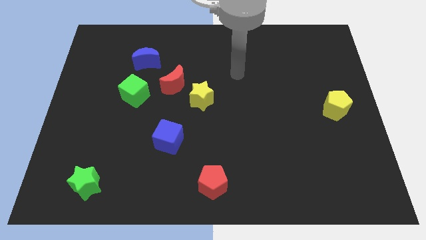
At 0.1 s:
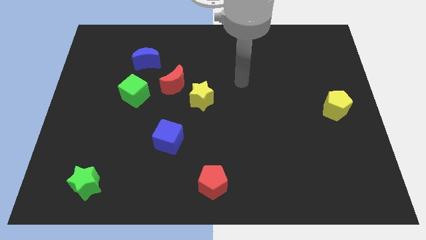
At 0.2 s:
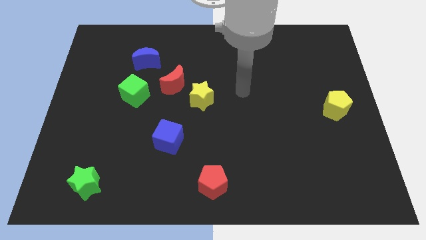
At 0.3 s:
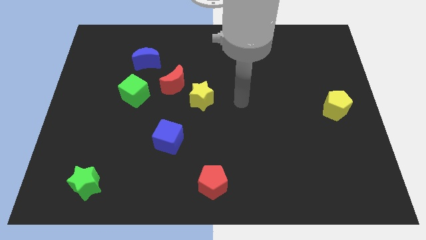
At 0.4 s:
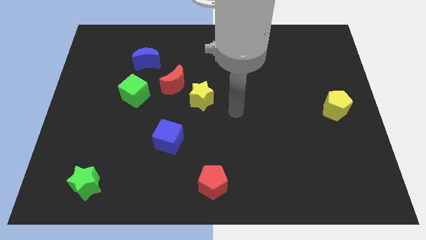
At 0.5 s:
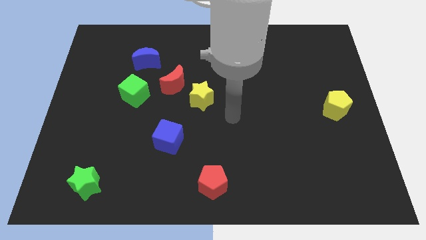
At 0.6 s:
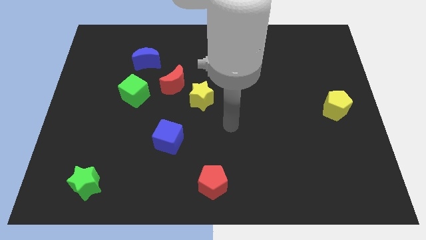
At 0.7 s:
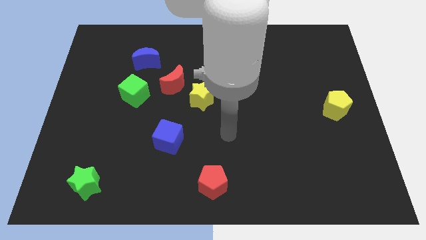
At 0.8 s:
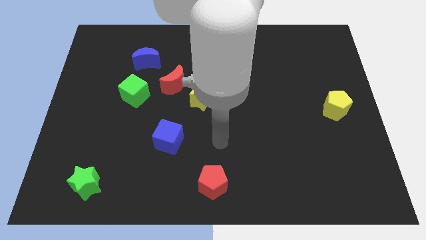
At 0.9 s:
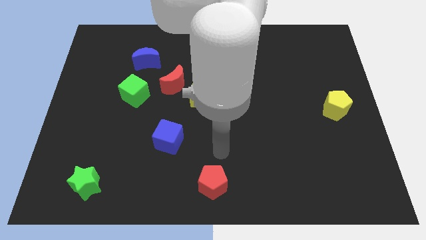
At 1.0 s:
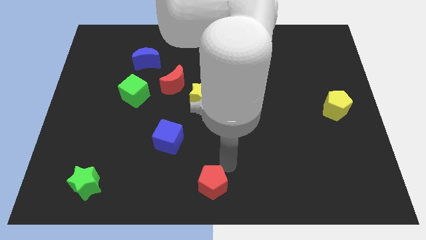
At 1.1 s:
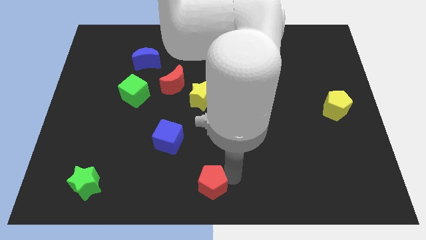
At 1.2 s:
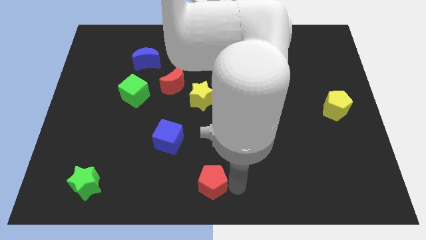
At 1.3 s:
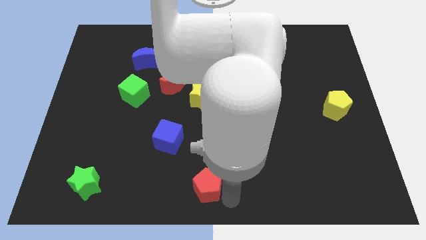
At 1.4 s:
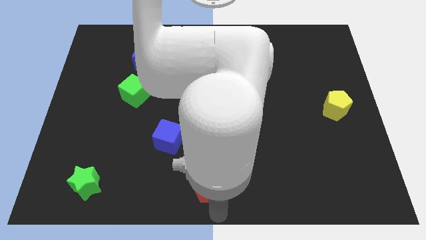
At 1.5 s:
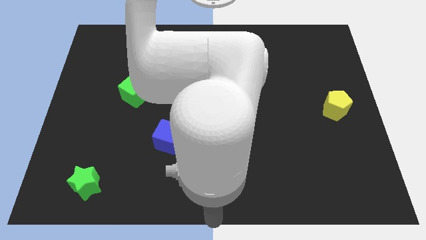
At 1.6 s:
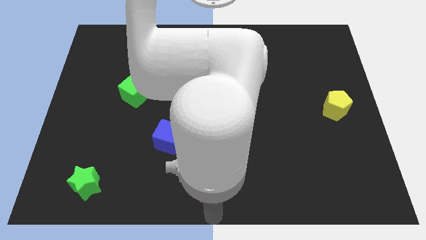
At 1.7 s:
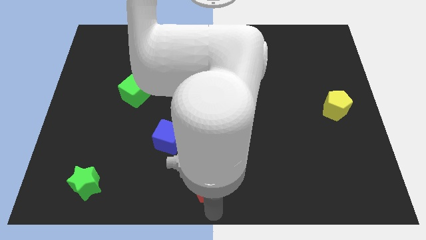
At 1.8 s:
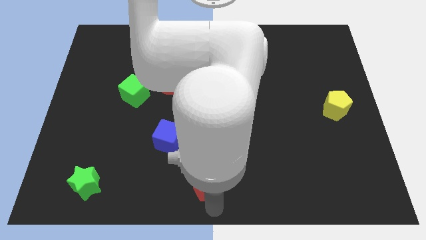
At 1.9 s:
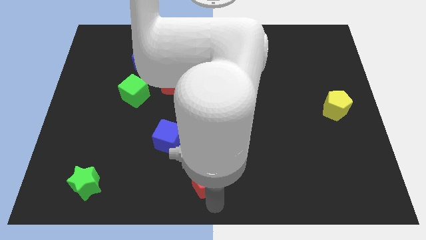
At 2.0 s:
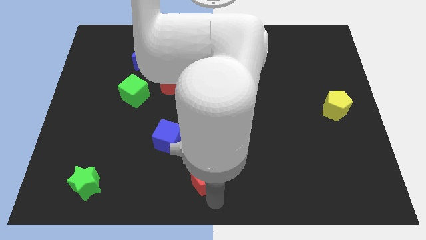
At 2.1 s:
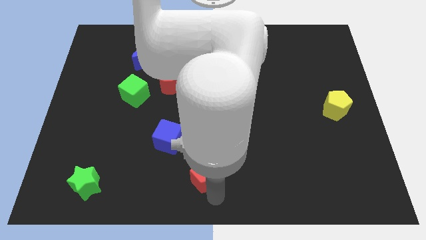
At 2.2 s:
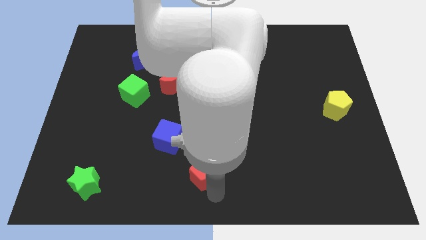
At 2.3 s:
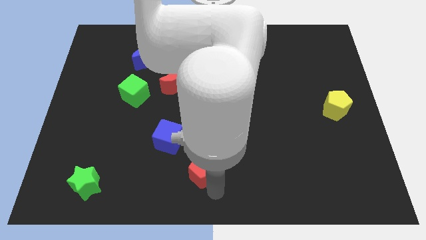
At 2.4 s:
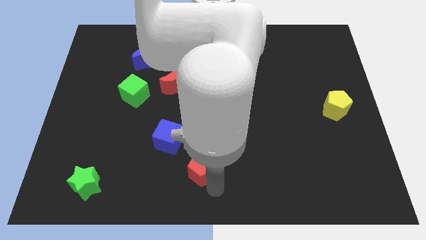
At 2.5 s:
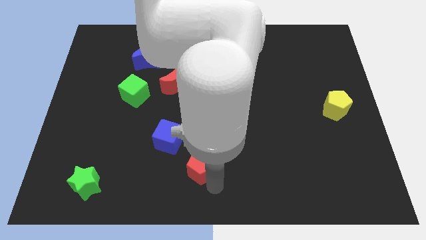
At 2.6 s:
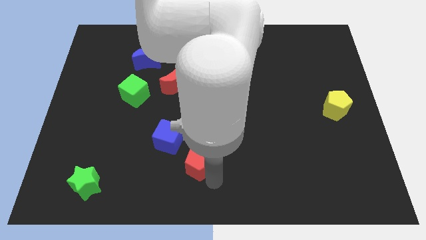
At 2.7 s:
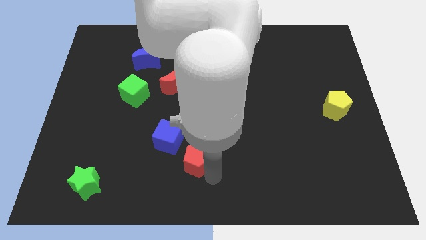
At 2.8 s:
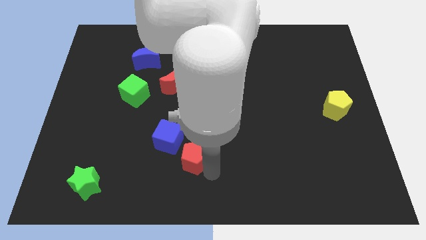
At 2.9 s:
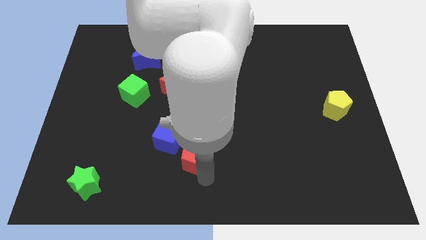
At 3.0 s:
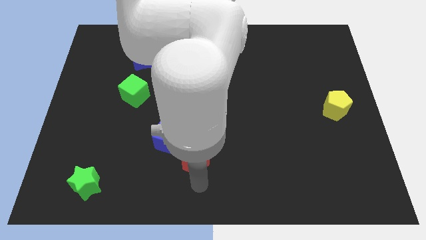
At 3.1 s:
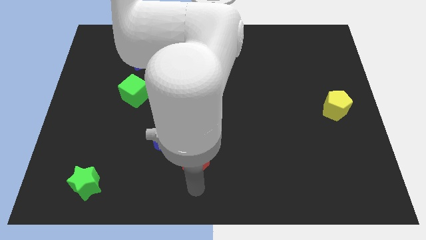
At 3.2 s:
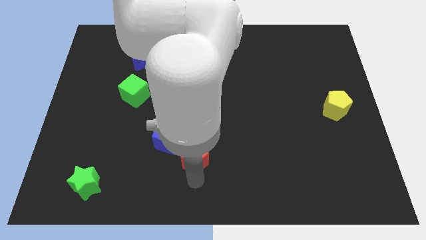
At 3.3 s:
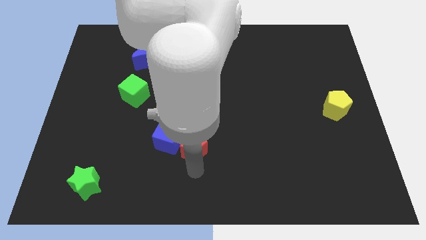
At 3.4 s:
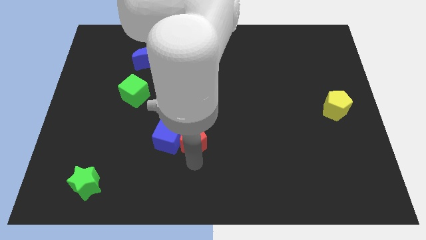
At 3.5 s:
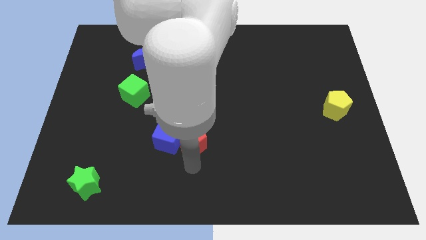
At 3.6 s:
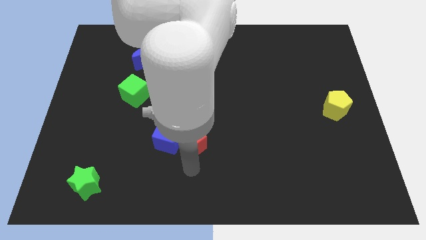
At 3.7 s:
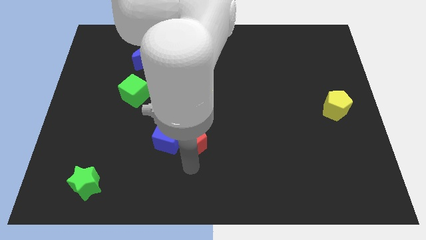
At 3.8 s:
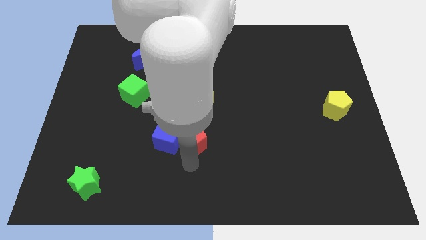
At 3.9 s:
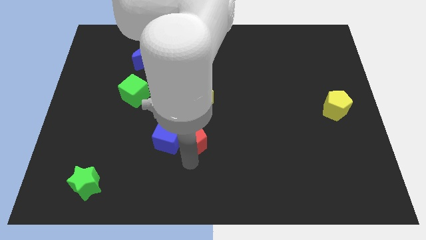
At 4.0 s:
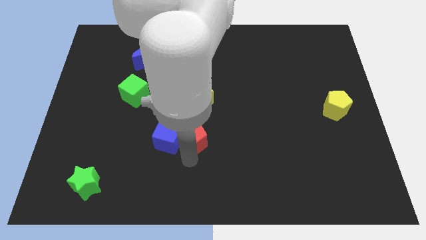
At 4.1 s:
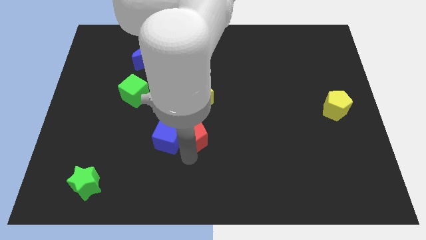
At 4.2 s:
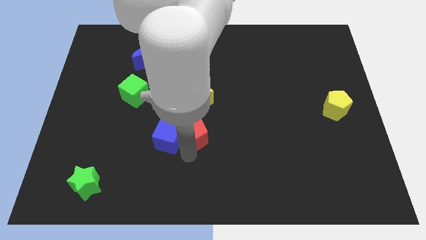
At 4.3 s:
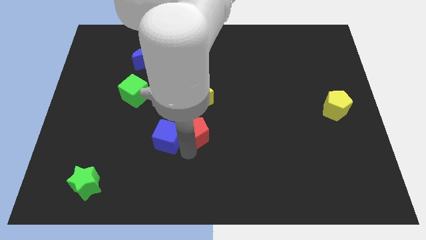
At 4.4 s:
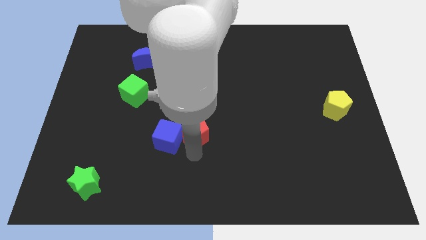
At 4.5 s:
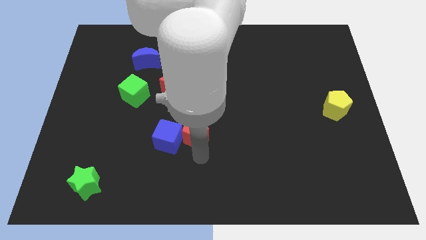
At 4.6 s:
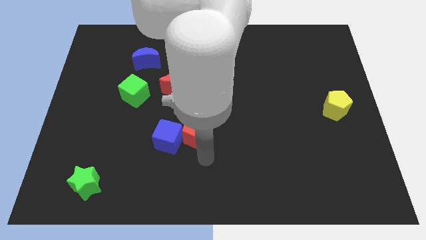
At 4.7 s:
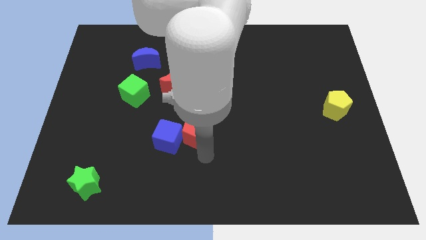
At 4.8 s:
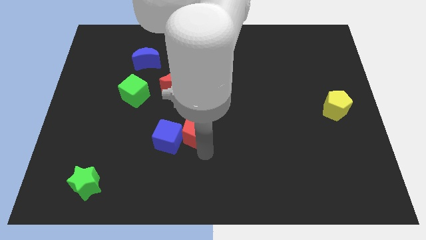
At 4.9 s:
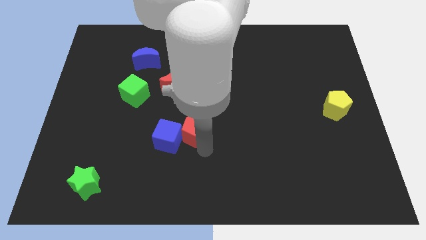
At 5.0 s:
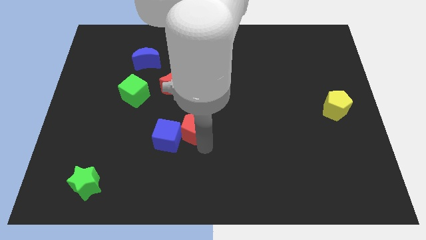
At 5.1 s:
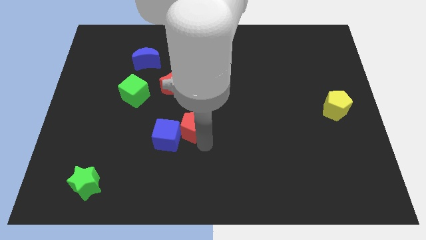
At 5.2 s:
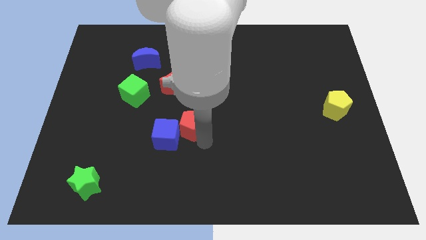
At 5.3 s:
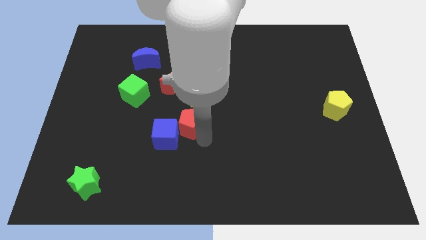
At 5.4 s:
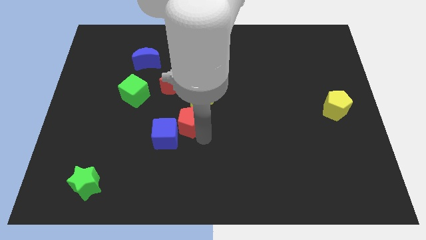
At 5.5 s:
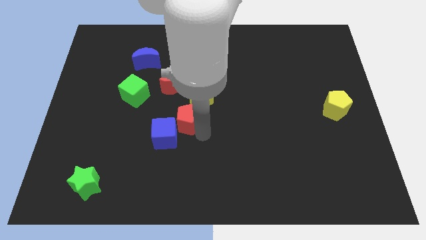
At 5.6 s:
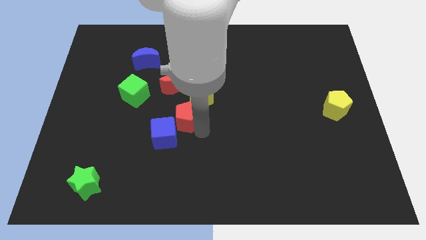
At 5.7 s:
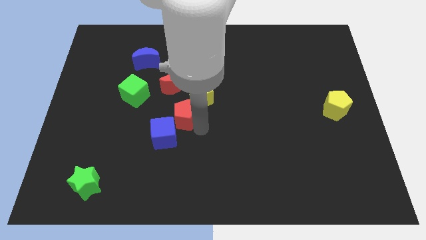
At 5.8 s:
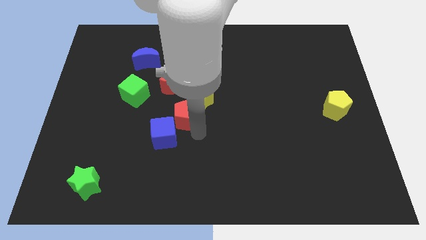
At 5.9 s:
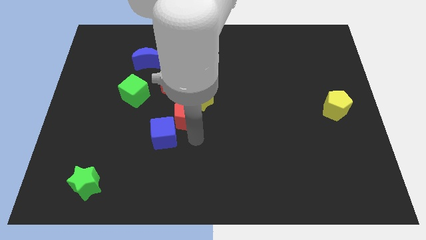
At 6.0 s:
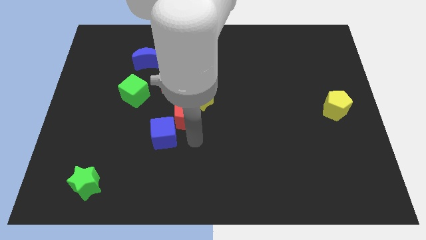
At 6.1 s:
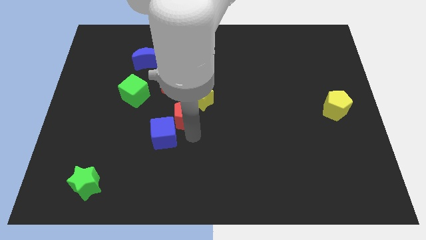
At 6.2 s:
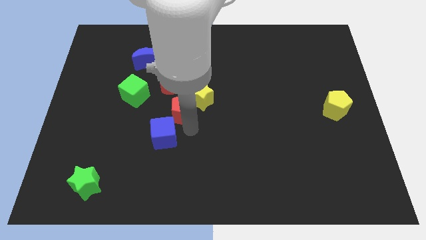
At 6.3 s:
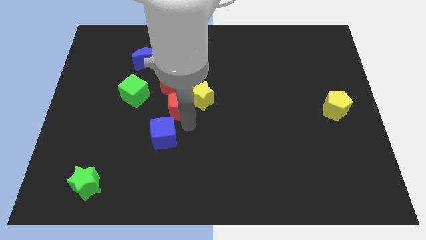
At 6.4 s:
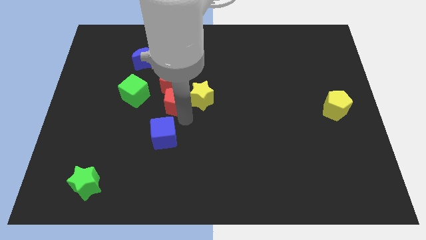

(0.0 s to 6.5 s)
slide the red pentagon to the red moon

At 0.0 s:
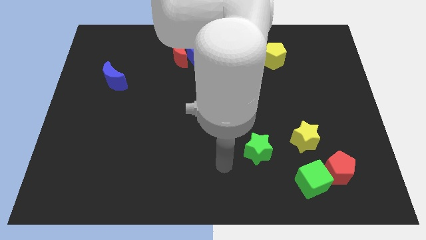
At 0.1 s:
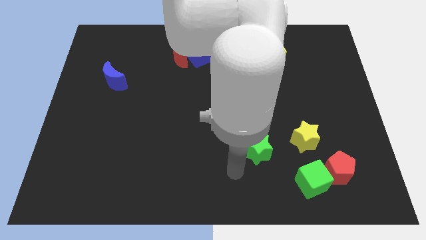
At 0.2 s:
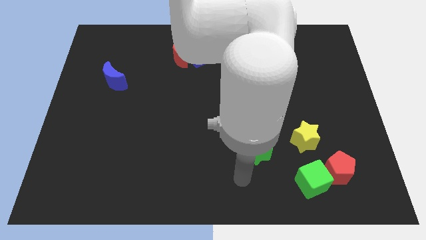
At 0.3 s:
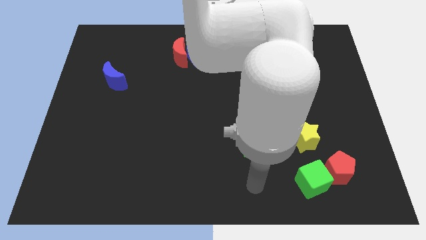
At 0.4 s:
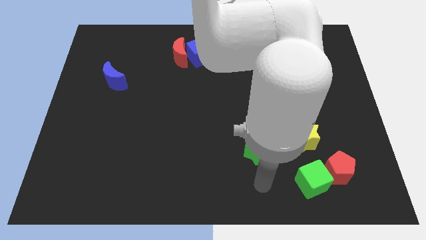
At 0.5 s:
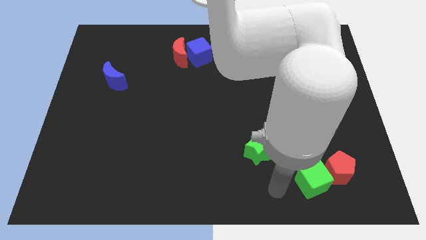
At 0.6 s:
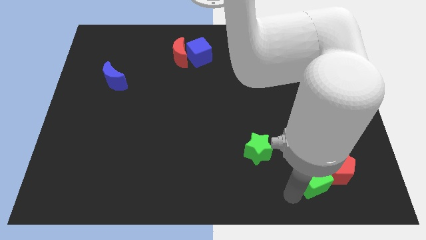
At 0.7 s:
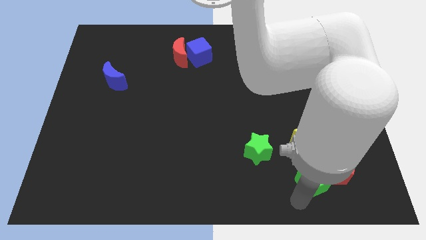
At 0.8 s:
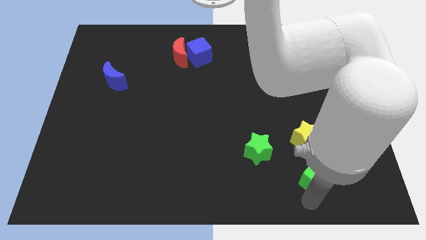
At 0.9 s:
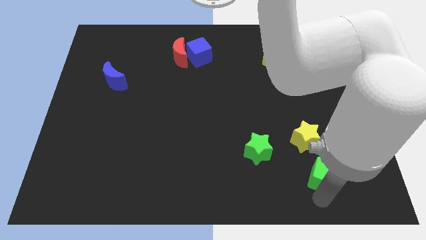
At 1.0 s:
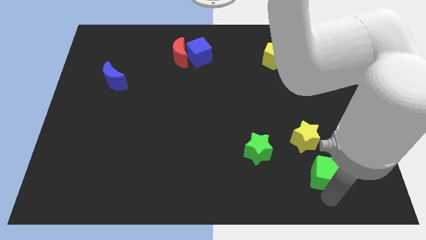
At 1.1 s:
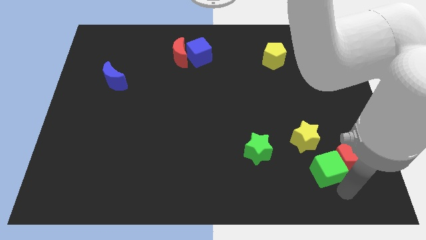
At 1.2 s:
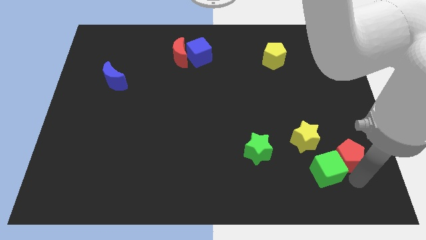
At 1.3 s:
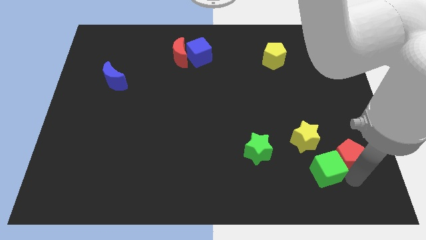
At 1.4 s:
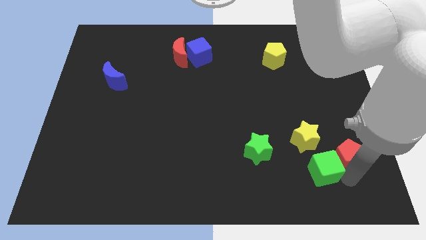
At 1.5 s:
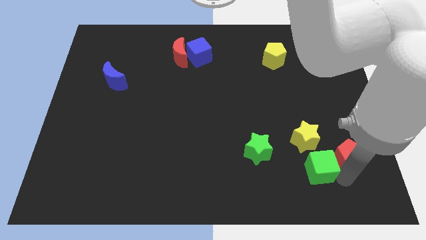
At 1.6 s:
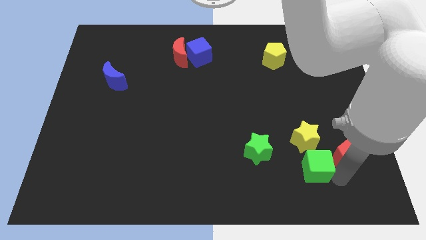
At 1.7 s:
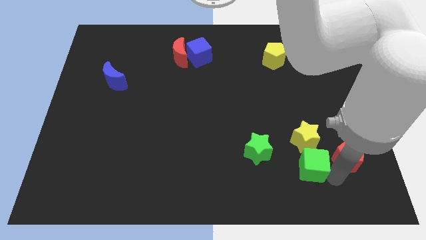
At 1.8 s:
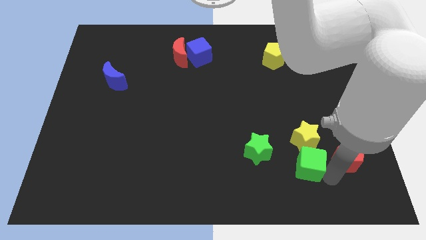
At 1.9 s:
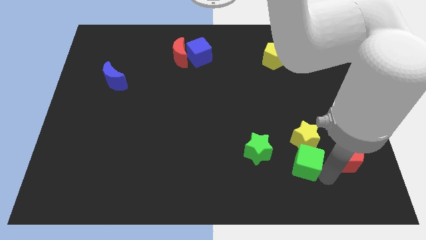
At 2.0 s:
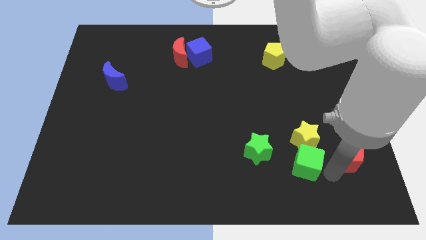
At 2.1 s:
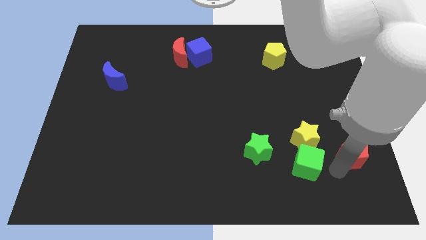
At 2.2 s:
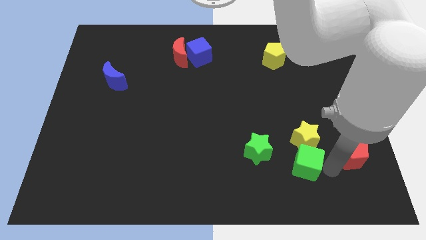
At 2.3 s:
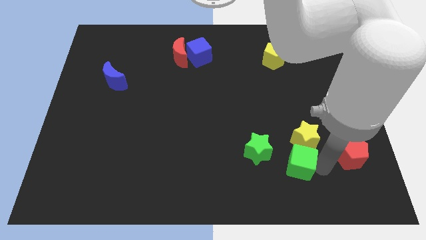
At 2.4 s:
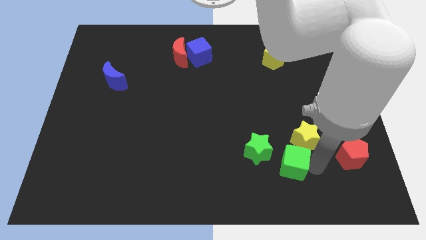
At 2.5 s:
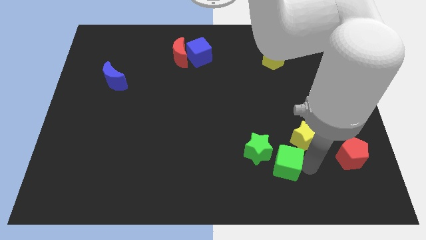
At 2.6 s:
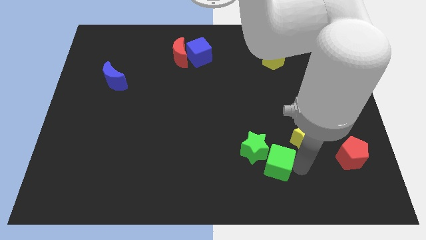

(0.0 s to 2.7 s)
move the green cube to the green star
